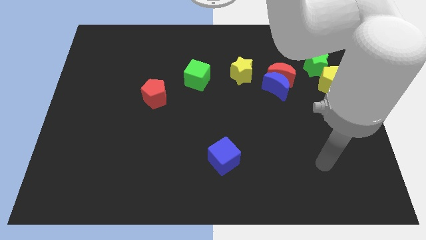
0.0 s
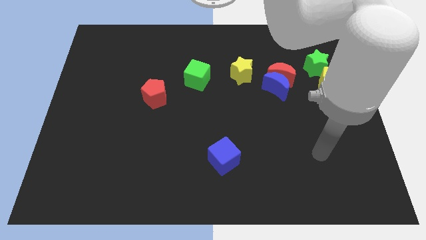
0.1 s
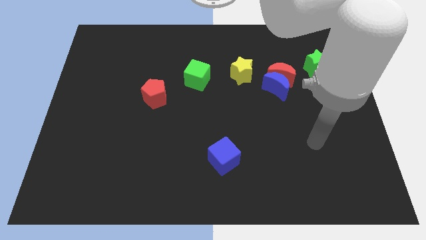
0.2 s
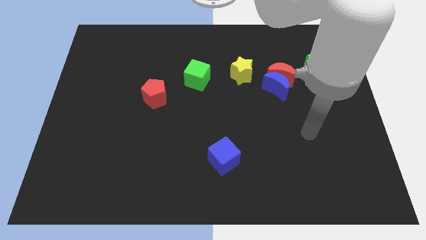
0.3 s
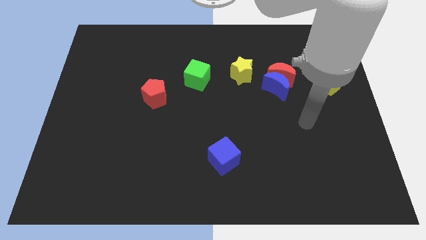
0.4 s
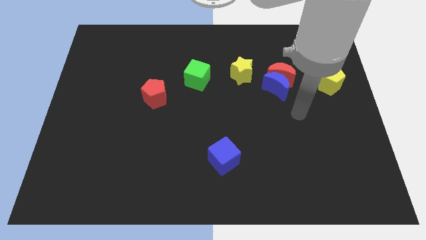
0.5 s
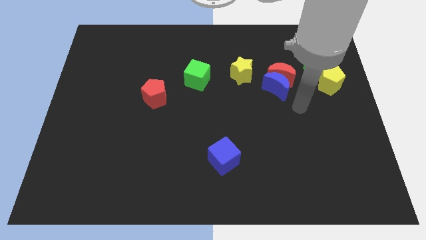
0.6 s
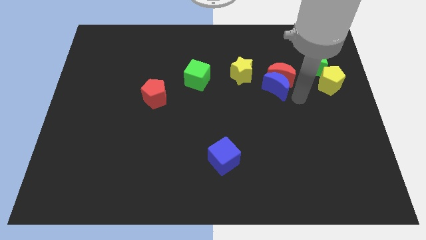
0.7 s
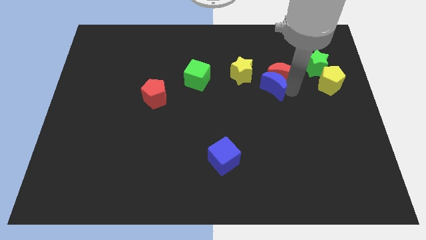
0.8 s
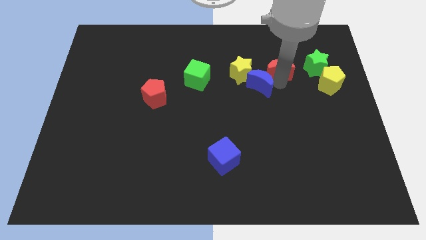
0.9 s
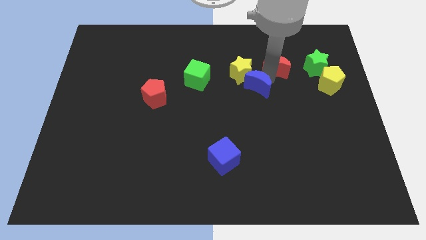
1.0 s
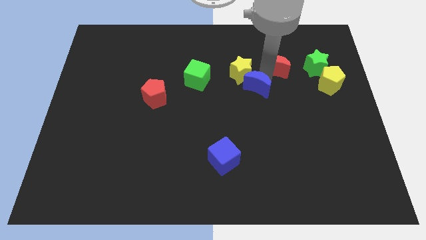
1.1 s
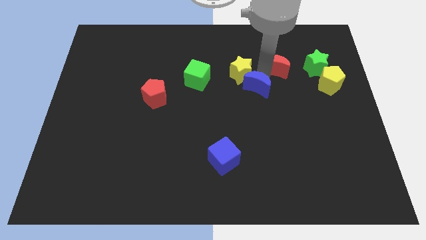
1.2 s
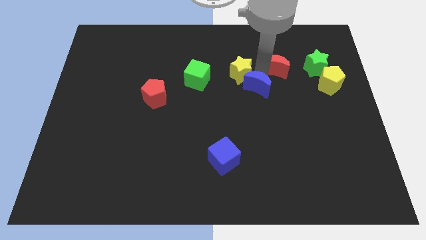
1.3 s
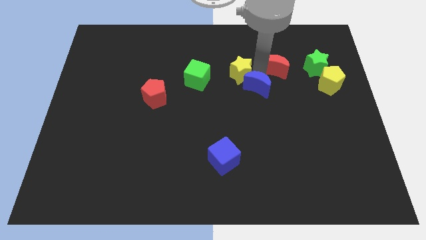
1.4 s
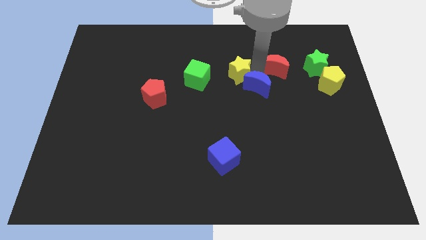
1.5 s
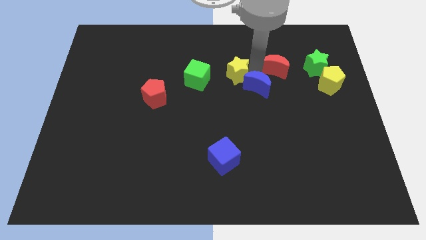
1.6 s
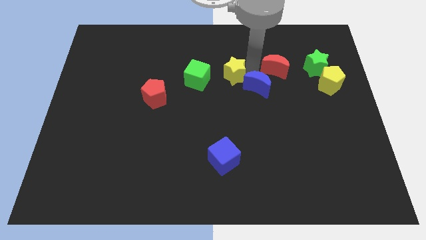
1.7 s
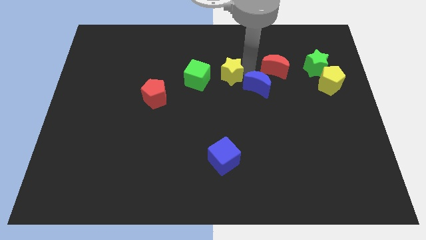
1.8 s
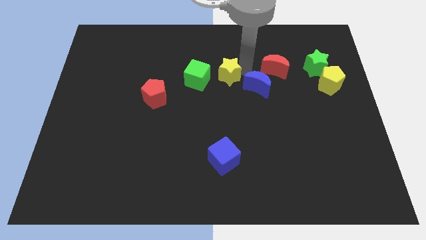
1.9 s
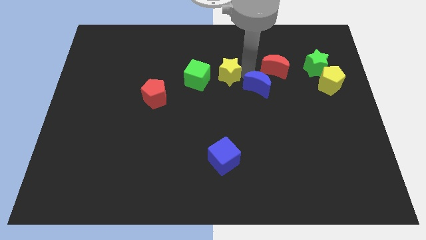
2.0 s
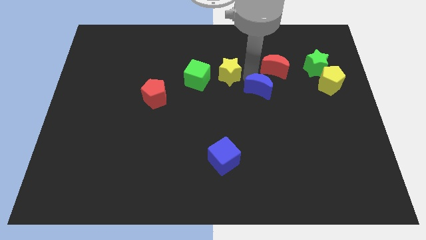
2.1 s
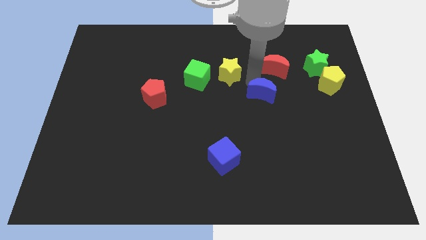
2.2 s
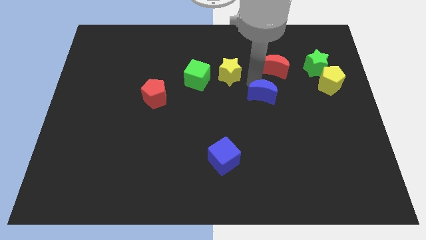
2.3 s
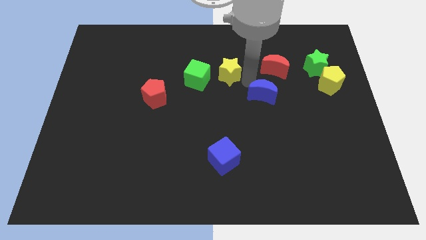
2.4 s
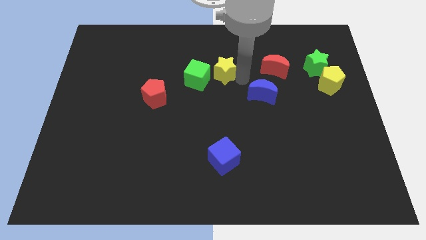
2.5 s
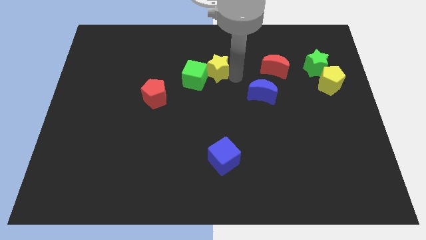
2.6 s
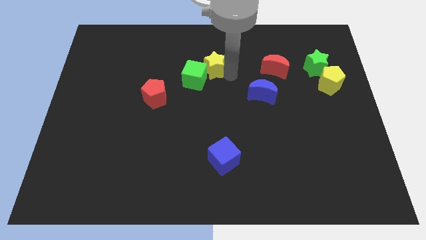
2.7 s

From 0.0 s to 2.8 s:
slightly move the yellow star to the left

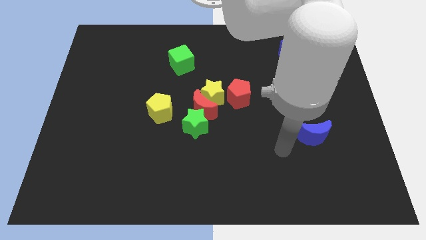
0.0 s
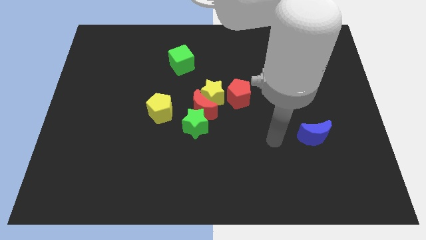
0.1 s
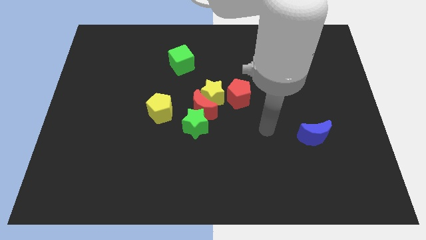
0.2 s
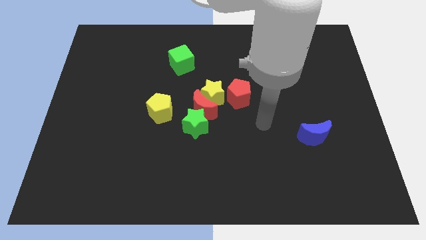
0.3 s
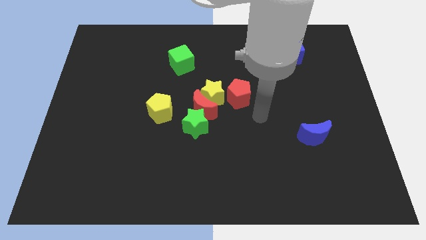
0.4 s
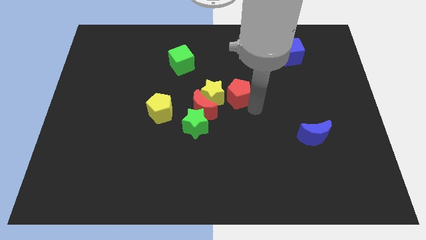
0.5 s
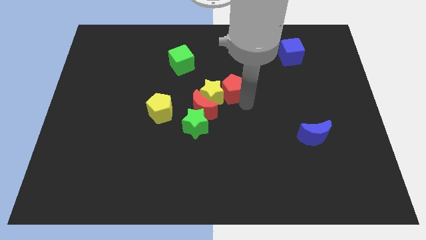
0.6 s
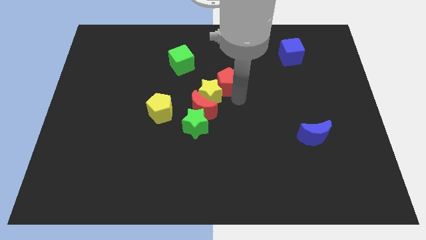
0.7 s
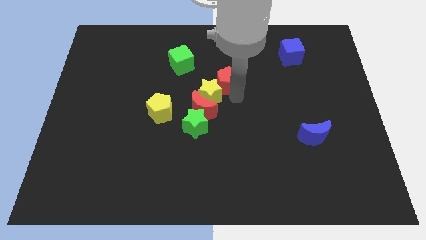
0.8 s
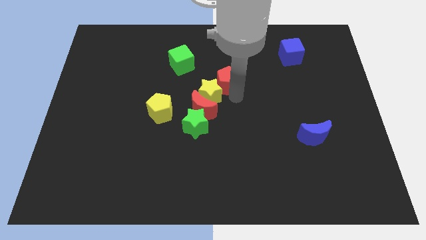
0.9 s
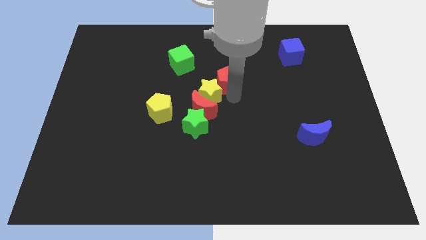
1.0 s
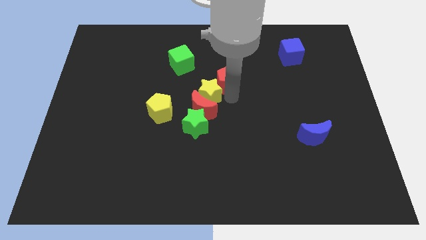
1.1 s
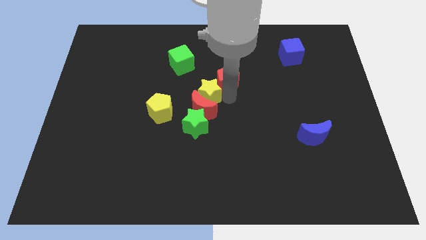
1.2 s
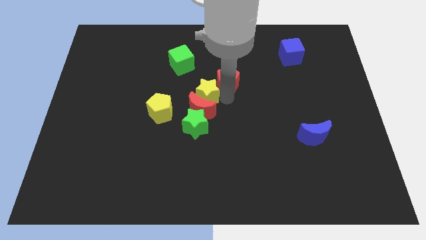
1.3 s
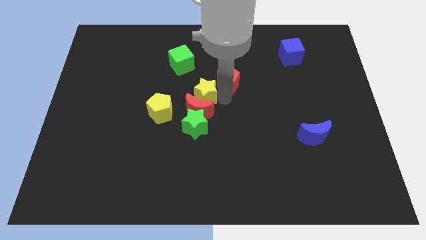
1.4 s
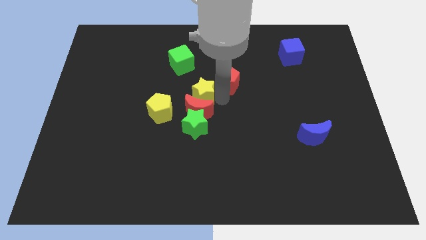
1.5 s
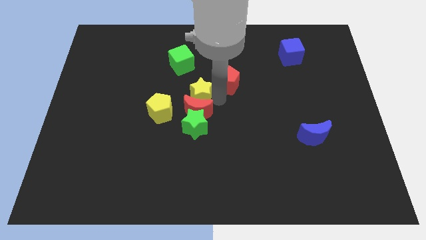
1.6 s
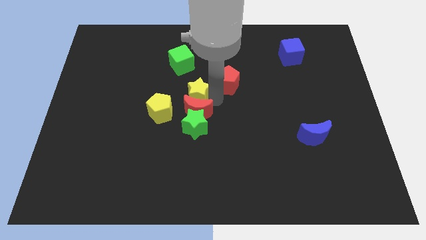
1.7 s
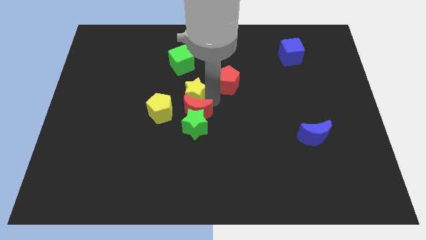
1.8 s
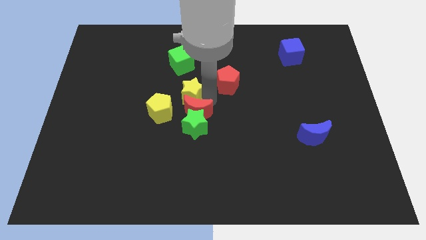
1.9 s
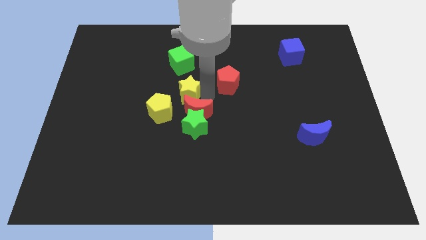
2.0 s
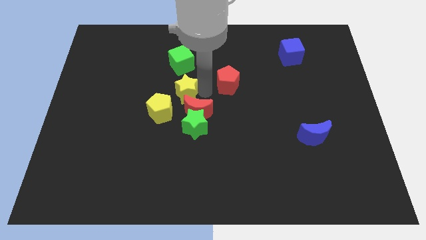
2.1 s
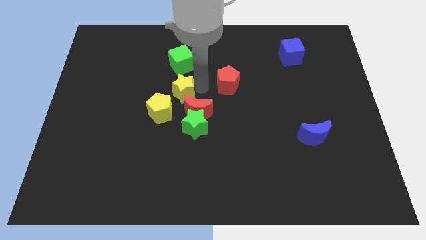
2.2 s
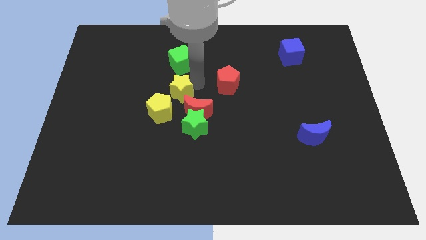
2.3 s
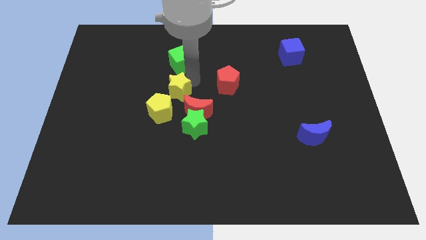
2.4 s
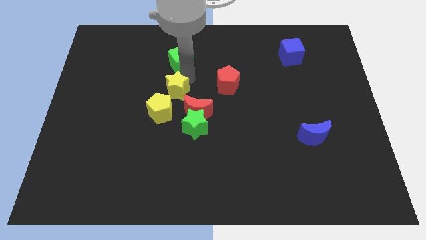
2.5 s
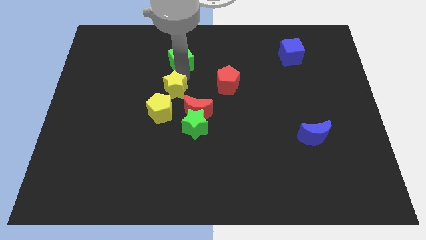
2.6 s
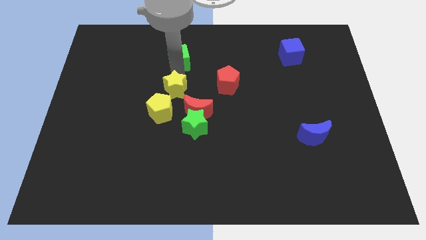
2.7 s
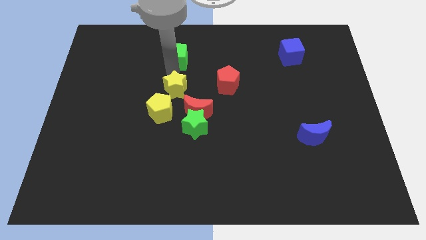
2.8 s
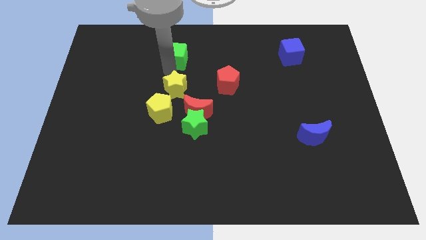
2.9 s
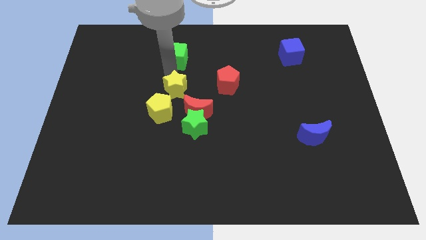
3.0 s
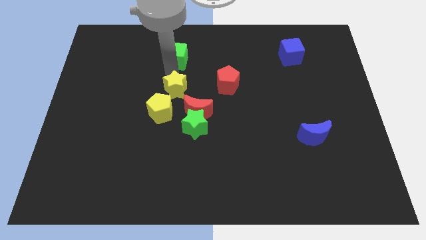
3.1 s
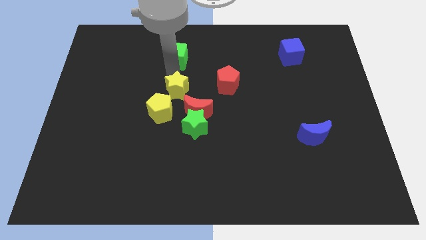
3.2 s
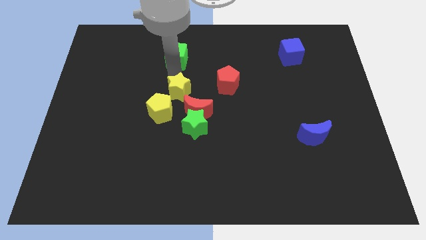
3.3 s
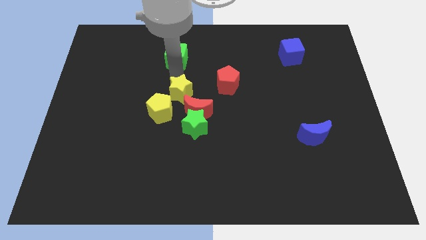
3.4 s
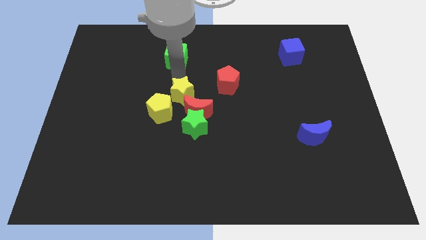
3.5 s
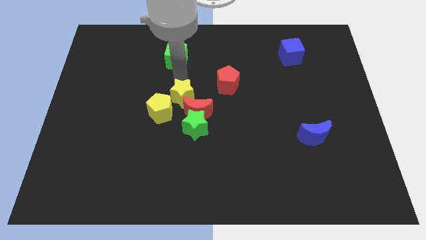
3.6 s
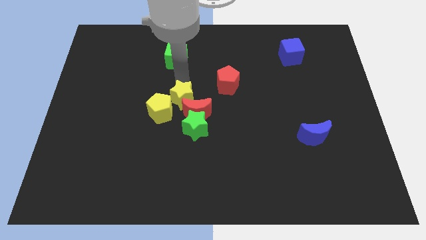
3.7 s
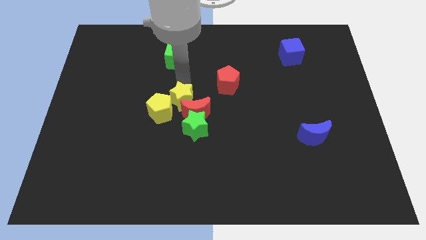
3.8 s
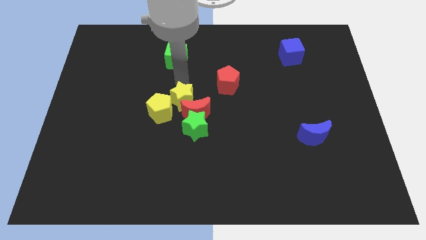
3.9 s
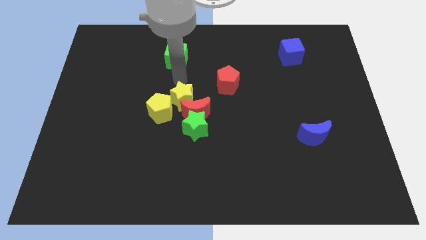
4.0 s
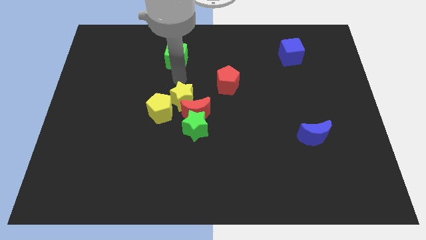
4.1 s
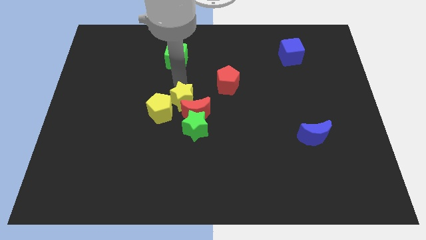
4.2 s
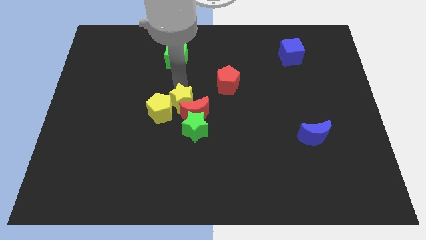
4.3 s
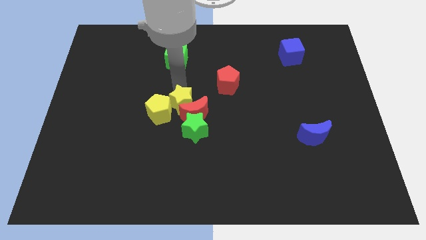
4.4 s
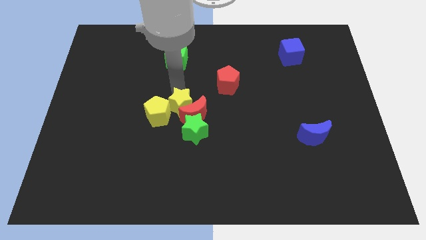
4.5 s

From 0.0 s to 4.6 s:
slide the yellow star a little downwards and left

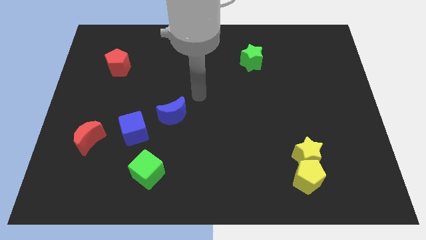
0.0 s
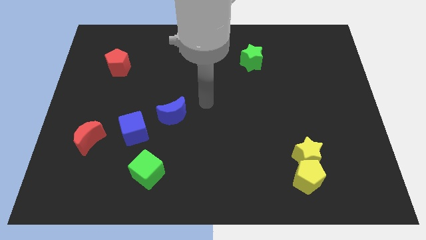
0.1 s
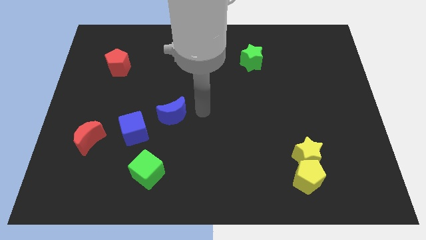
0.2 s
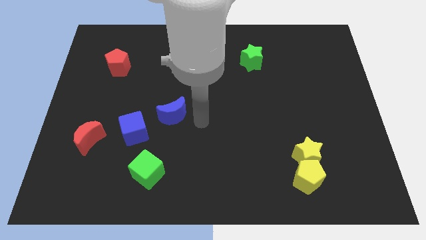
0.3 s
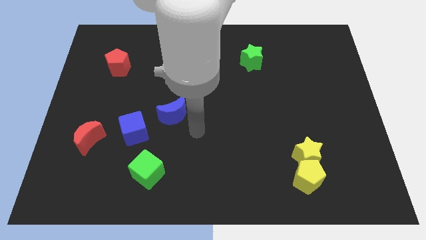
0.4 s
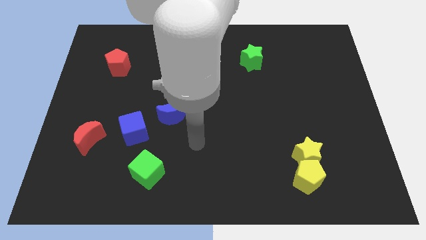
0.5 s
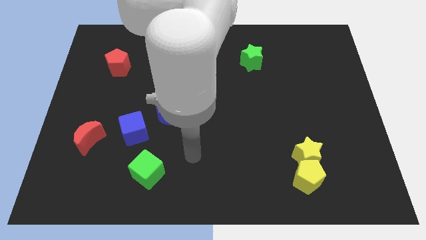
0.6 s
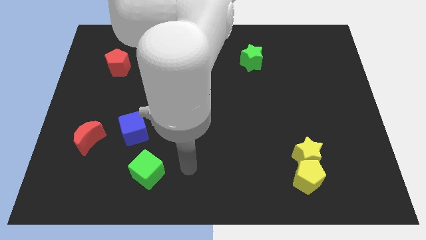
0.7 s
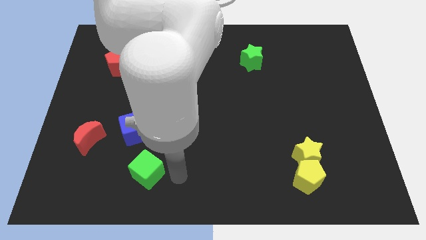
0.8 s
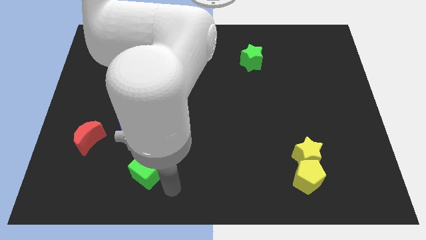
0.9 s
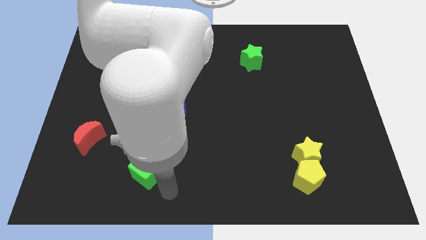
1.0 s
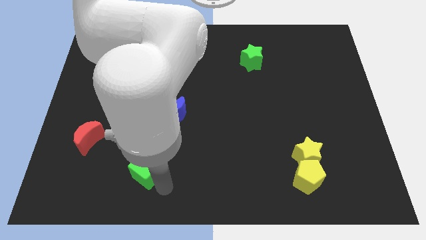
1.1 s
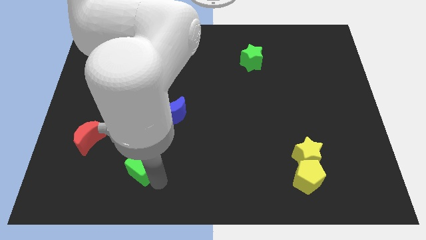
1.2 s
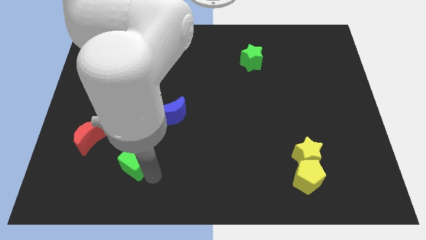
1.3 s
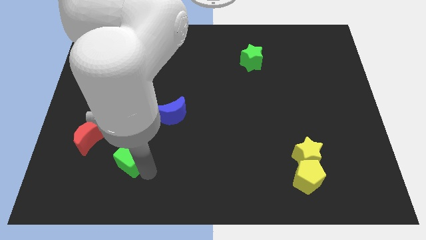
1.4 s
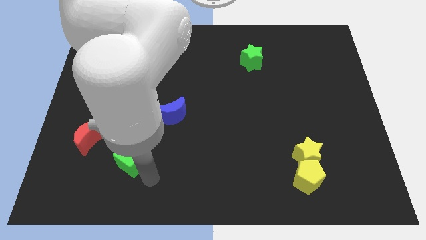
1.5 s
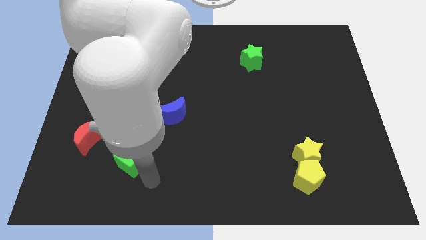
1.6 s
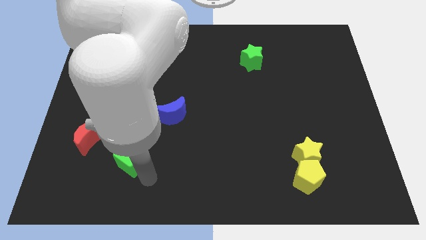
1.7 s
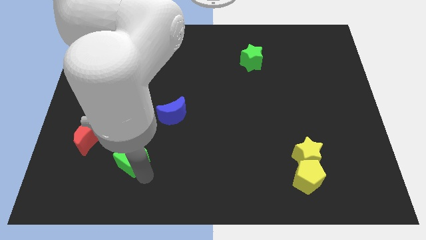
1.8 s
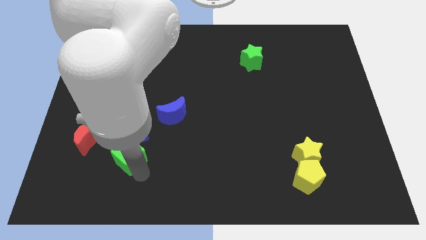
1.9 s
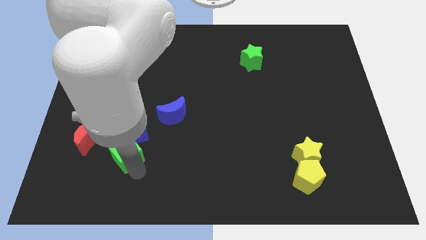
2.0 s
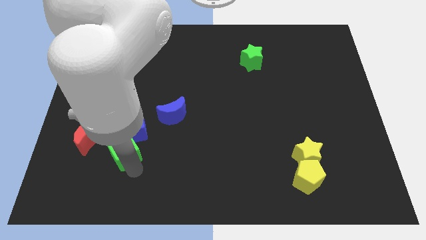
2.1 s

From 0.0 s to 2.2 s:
slightly move the green cube up and then to the left
